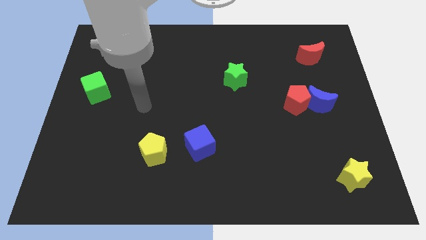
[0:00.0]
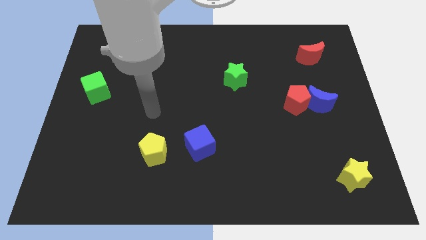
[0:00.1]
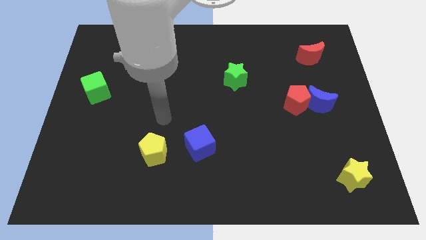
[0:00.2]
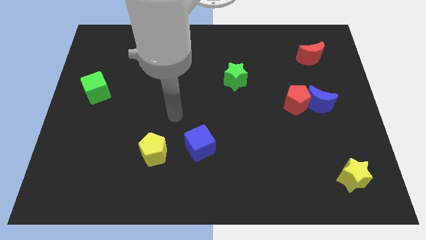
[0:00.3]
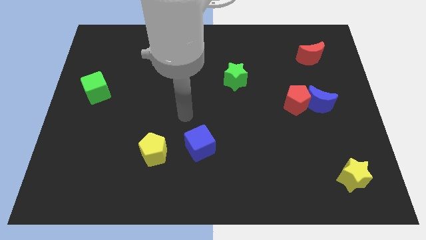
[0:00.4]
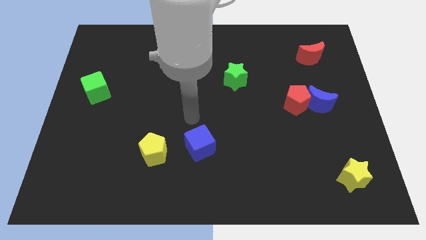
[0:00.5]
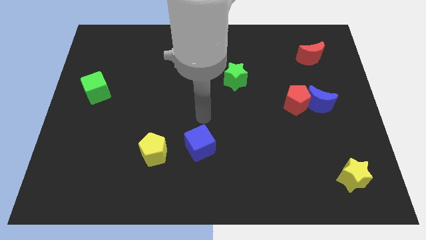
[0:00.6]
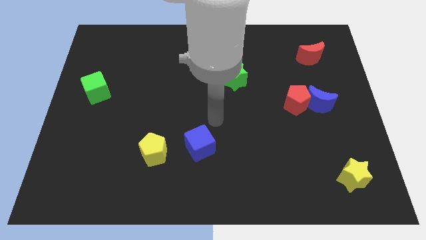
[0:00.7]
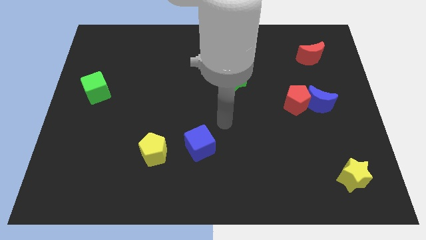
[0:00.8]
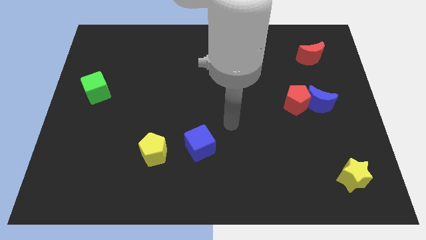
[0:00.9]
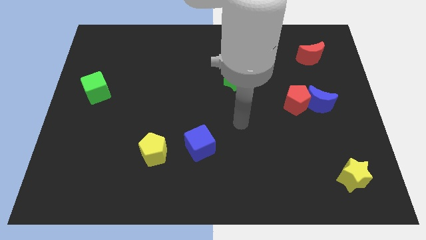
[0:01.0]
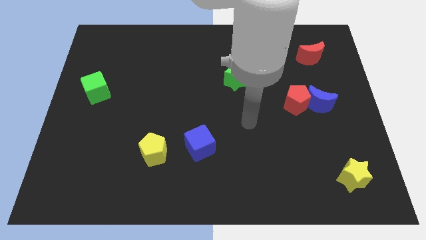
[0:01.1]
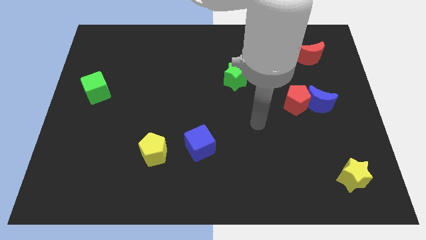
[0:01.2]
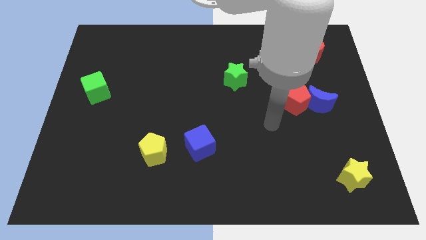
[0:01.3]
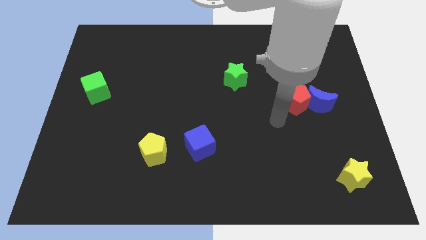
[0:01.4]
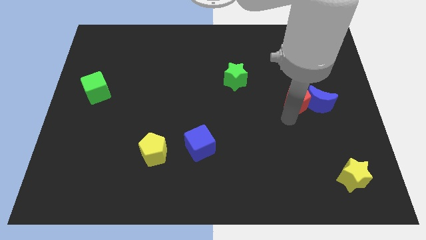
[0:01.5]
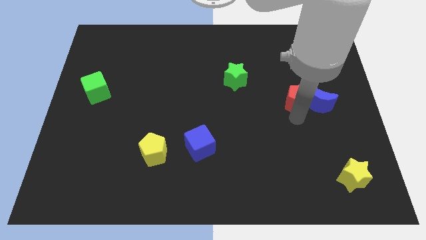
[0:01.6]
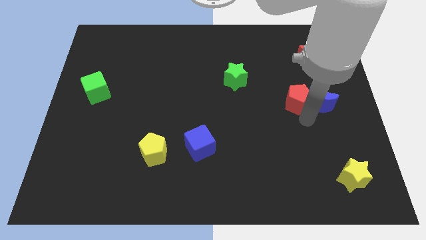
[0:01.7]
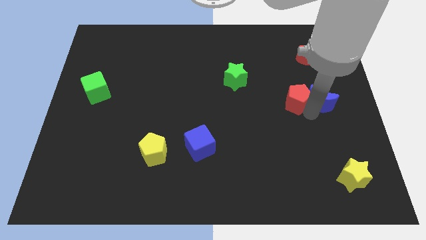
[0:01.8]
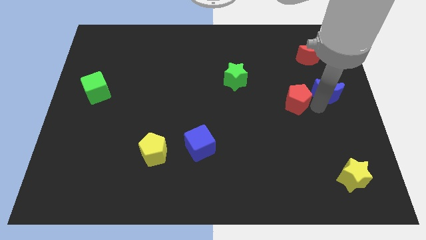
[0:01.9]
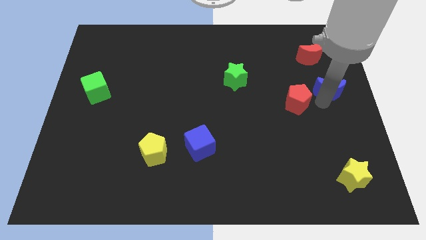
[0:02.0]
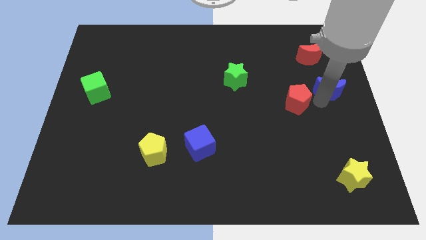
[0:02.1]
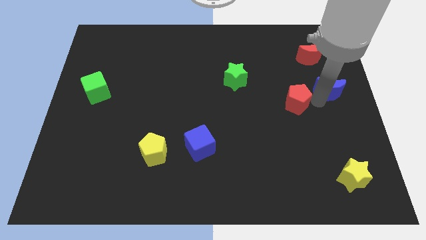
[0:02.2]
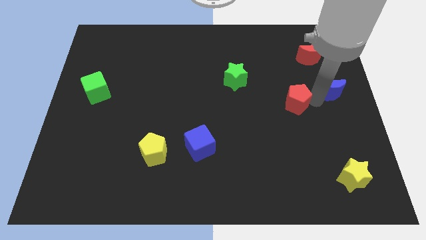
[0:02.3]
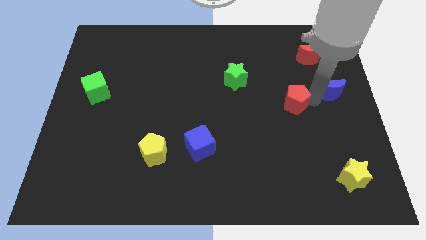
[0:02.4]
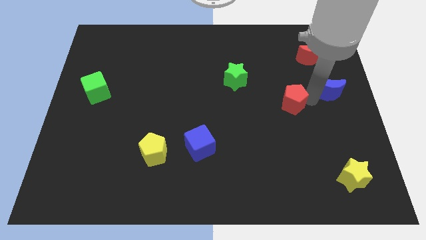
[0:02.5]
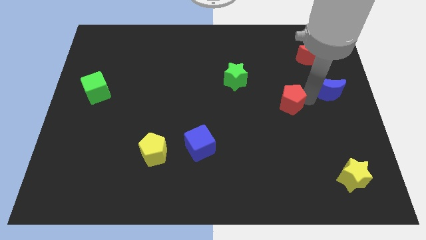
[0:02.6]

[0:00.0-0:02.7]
pull the red pentagon apart from the blue moon

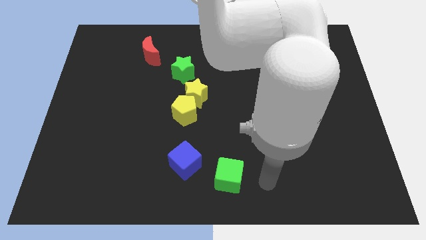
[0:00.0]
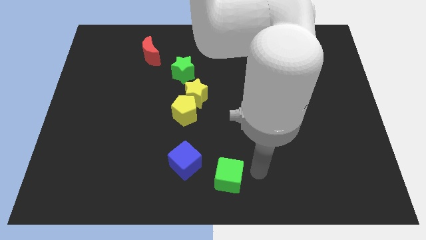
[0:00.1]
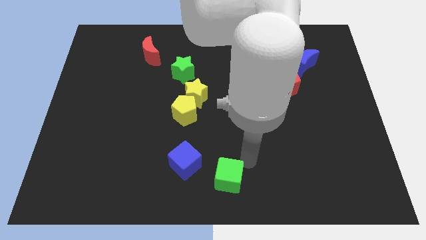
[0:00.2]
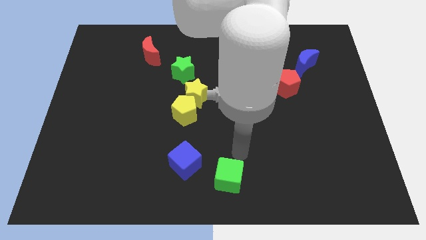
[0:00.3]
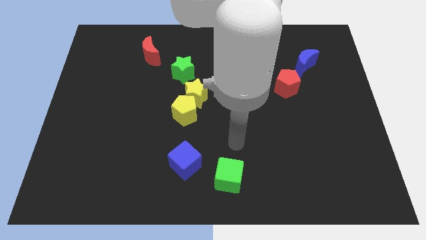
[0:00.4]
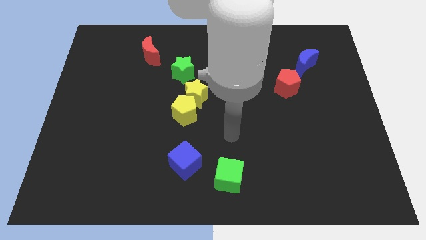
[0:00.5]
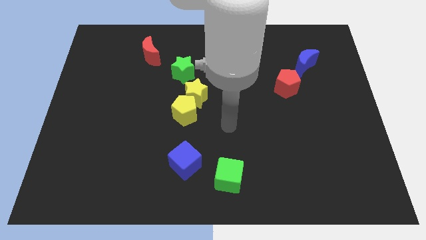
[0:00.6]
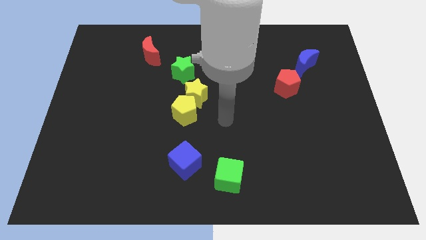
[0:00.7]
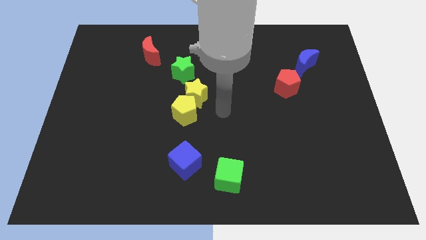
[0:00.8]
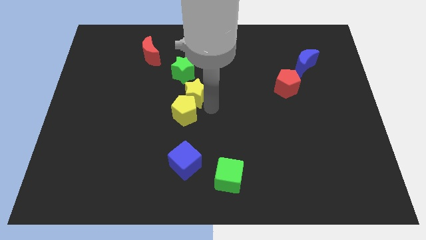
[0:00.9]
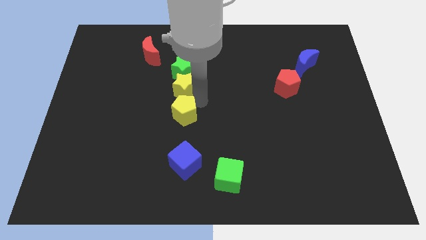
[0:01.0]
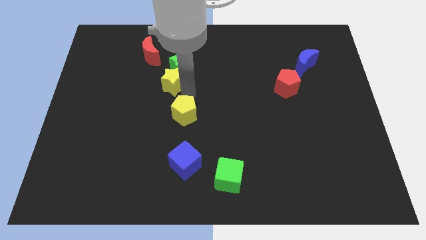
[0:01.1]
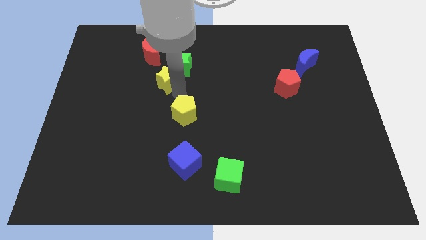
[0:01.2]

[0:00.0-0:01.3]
pull the yellow pentagon apart from the yellow star

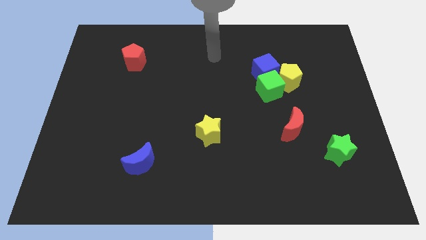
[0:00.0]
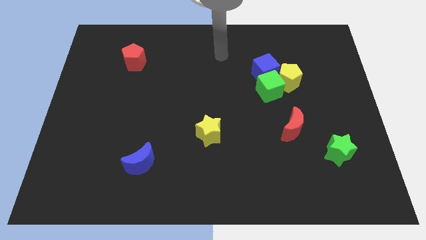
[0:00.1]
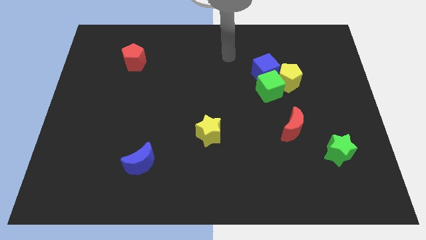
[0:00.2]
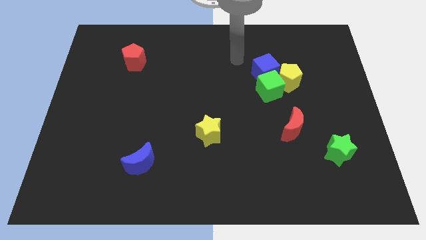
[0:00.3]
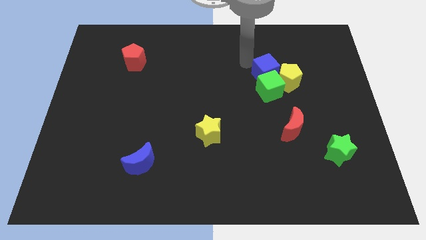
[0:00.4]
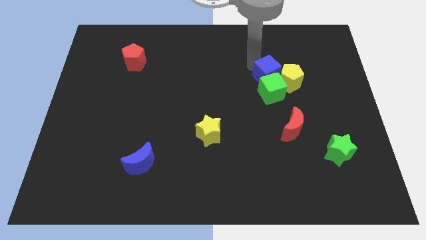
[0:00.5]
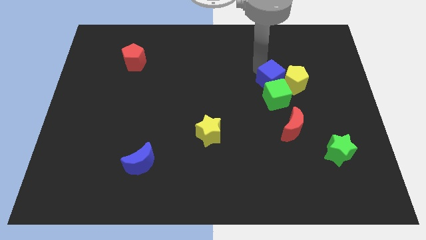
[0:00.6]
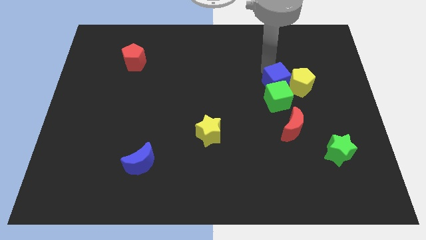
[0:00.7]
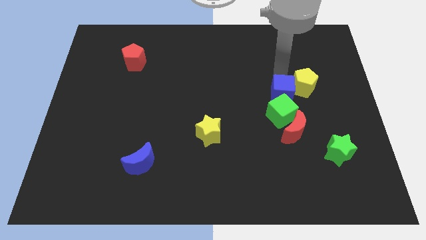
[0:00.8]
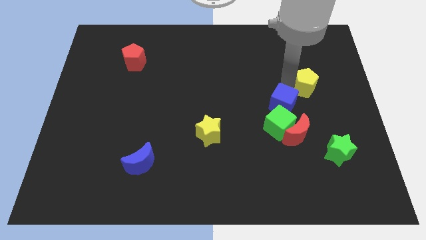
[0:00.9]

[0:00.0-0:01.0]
separate the green cube from the blue cube and yellow pentagon

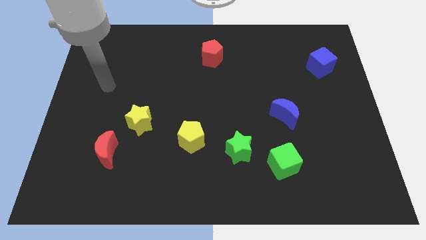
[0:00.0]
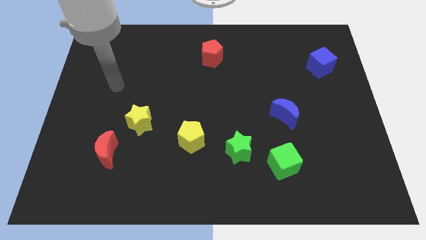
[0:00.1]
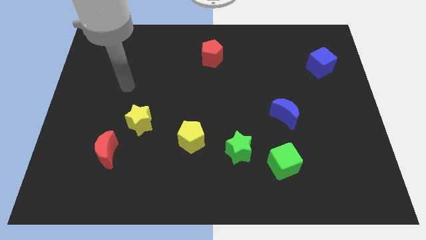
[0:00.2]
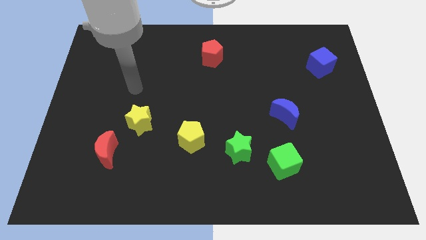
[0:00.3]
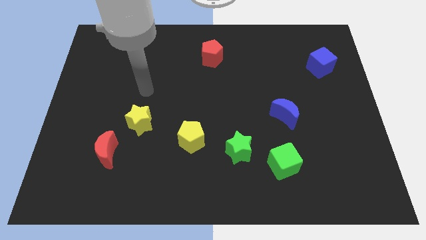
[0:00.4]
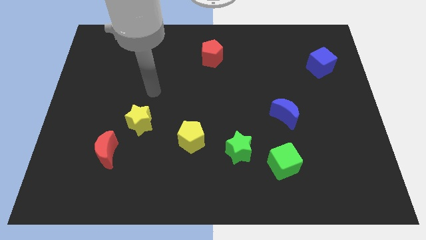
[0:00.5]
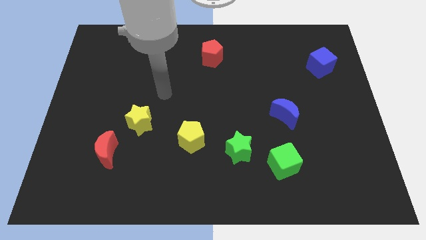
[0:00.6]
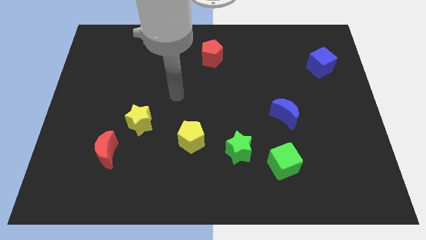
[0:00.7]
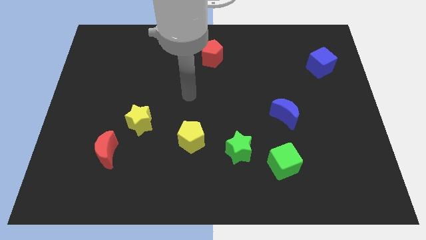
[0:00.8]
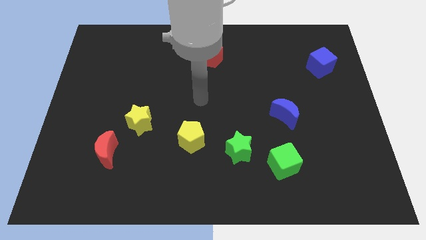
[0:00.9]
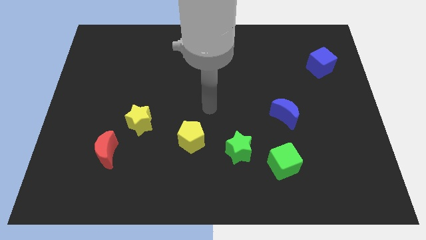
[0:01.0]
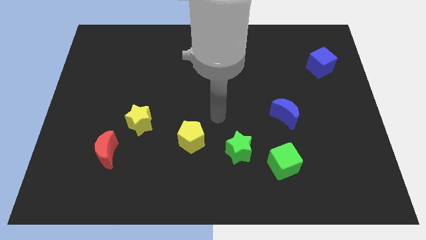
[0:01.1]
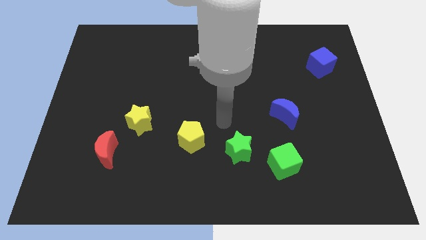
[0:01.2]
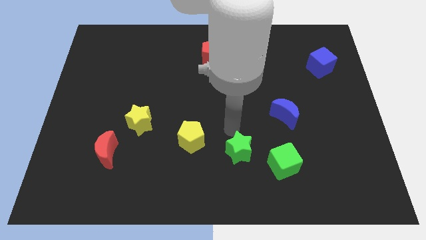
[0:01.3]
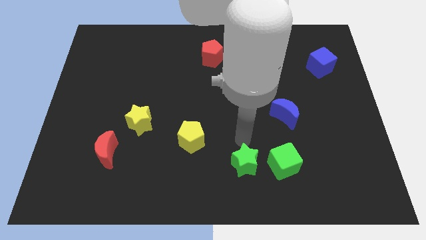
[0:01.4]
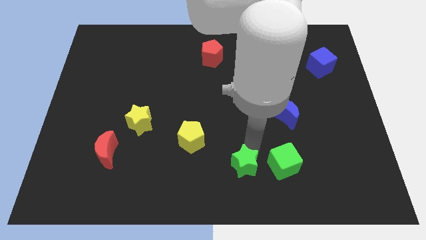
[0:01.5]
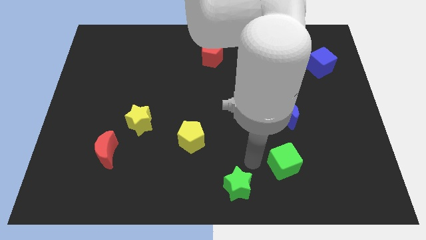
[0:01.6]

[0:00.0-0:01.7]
pull the green cube apart from the green star

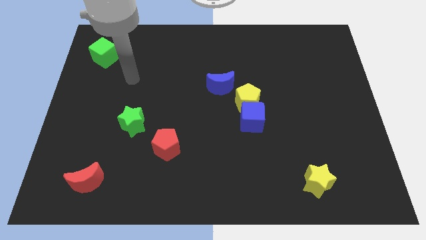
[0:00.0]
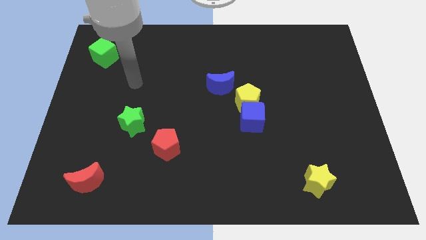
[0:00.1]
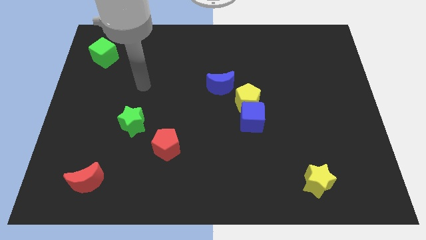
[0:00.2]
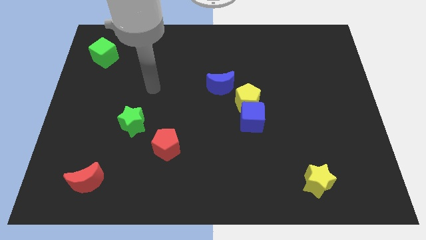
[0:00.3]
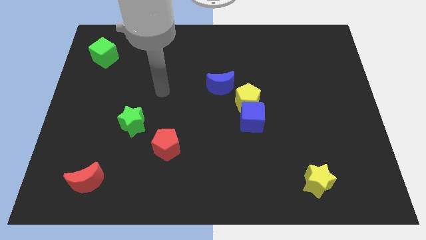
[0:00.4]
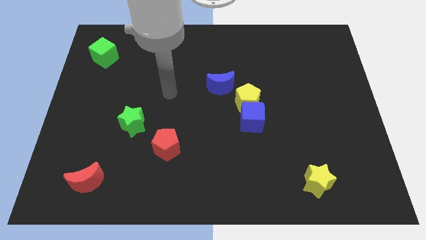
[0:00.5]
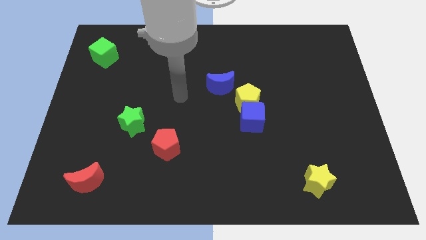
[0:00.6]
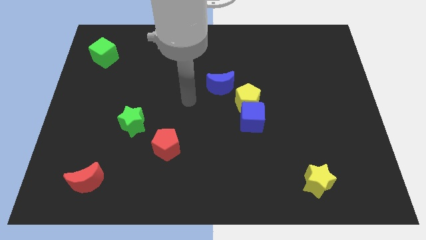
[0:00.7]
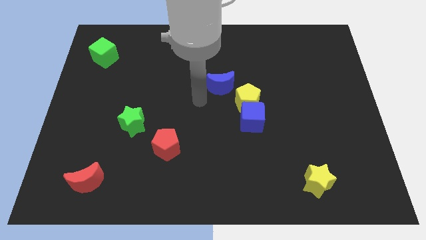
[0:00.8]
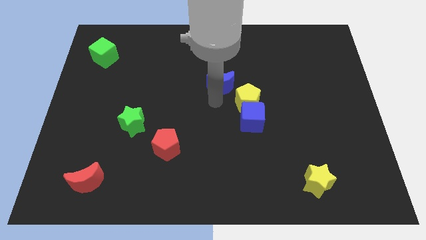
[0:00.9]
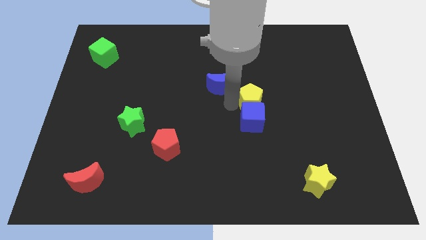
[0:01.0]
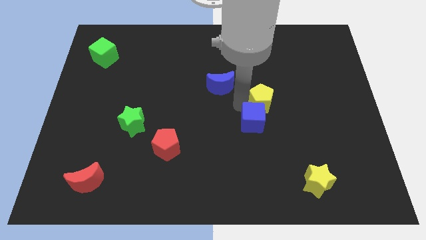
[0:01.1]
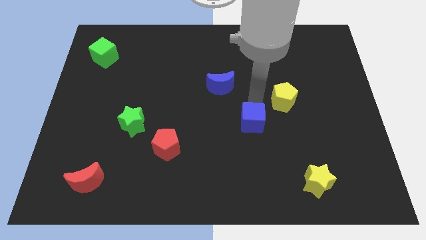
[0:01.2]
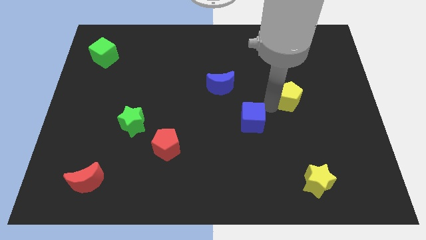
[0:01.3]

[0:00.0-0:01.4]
move the blue cube away from the yellow pentagon

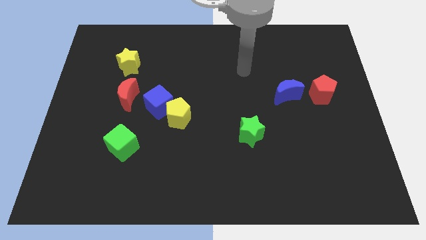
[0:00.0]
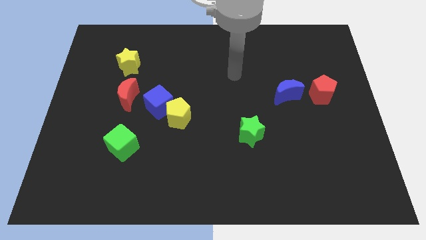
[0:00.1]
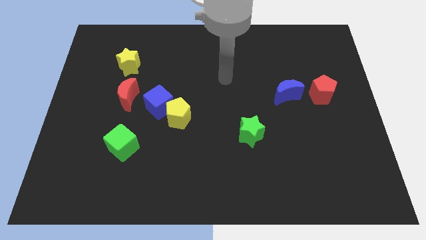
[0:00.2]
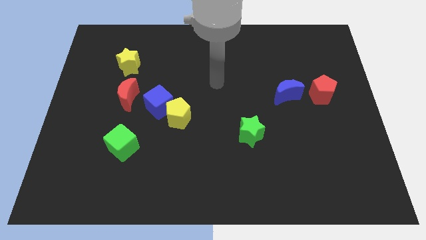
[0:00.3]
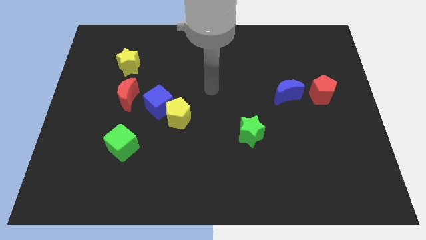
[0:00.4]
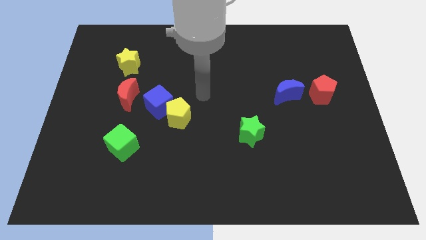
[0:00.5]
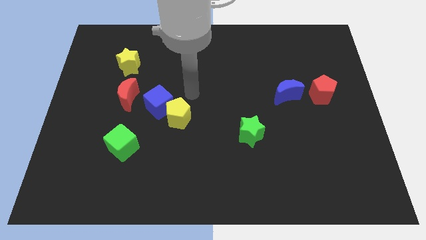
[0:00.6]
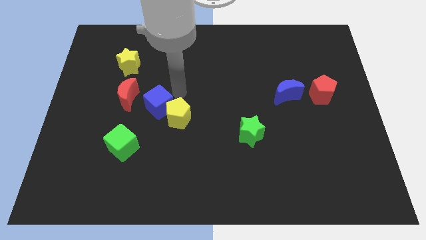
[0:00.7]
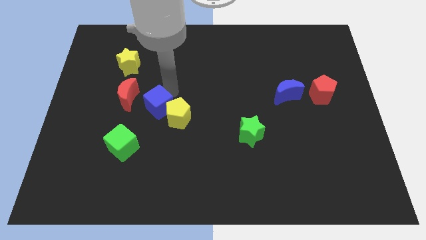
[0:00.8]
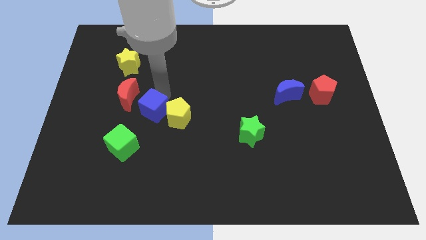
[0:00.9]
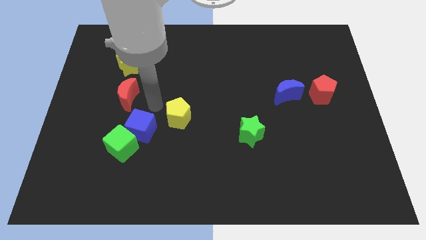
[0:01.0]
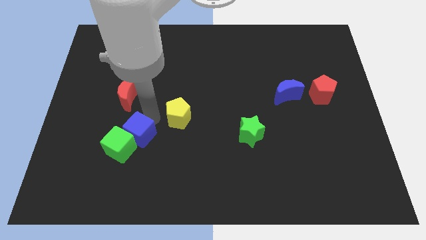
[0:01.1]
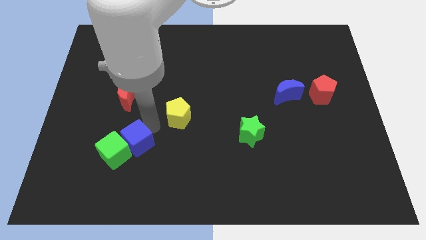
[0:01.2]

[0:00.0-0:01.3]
move the yellow pentagon away from the blue cube

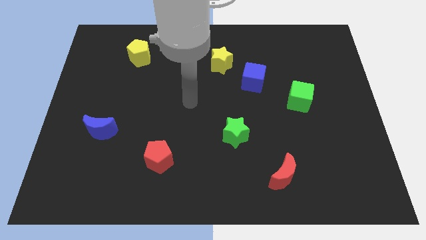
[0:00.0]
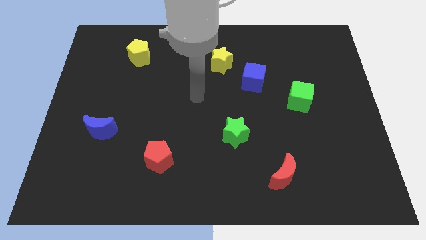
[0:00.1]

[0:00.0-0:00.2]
move the blue cube away from the yellow star
